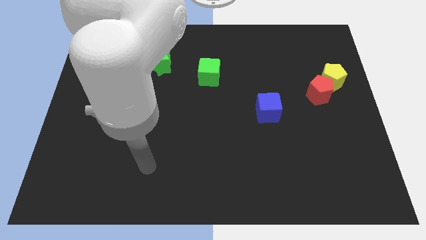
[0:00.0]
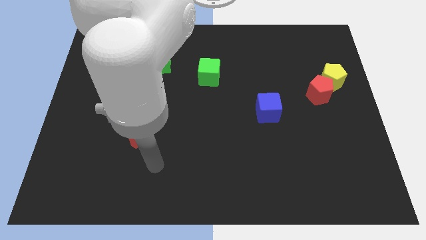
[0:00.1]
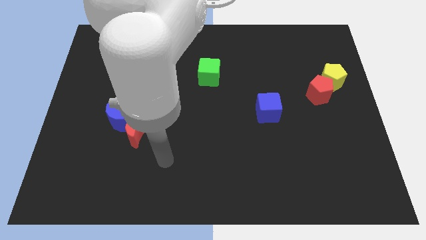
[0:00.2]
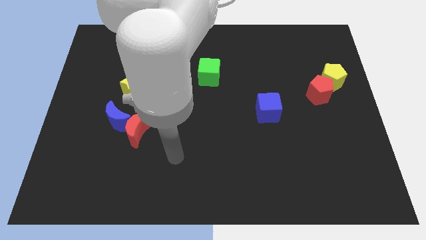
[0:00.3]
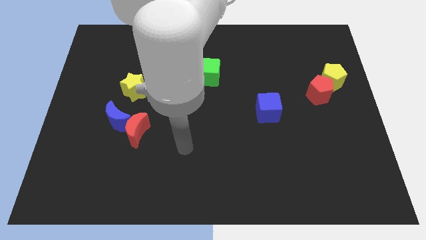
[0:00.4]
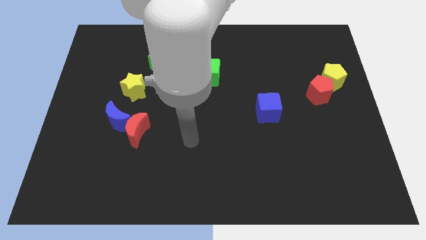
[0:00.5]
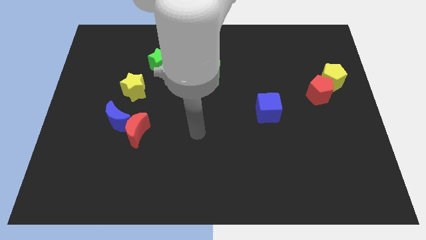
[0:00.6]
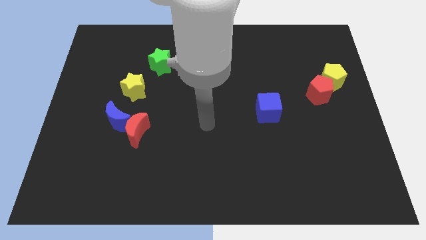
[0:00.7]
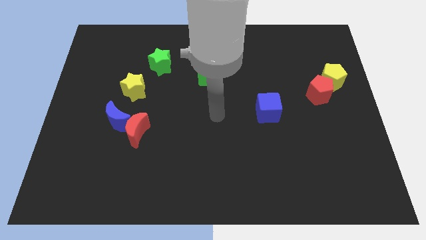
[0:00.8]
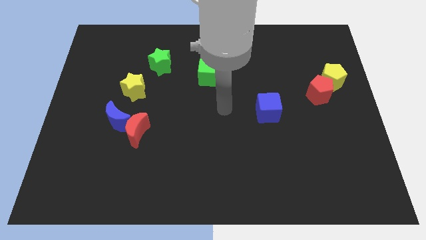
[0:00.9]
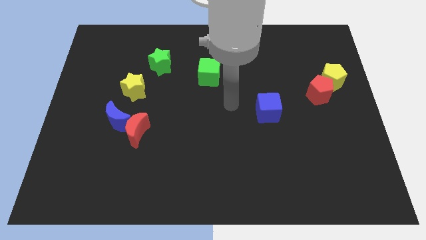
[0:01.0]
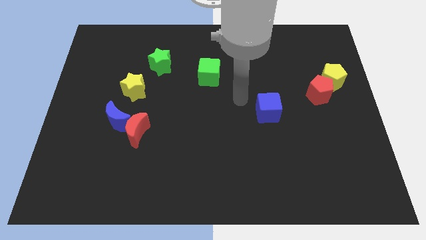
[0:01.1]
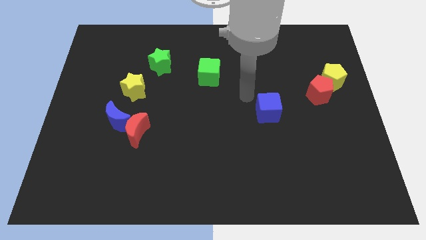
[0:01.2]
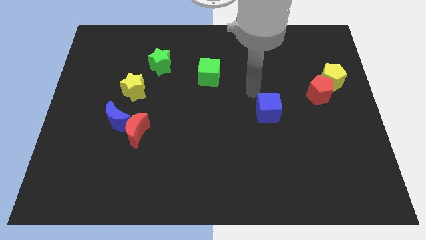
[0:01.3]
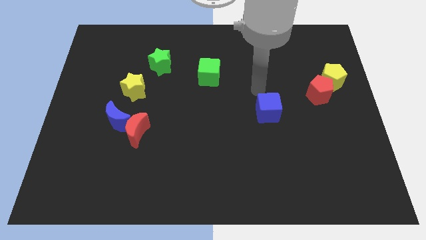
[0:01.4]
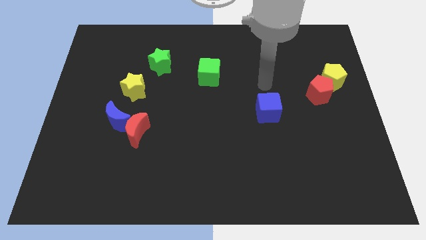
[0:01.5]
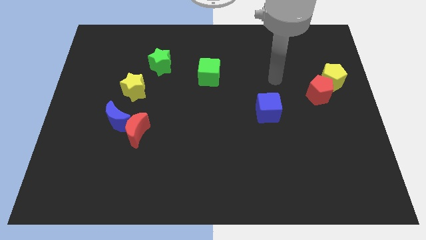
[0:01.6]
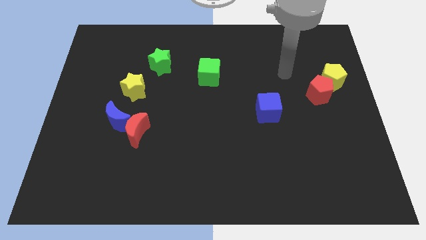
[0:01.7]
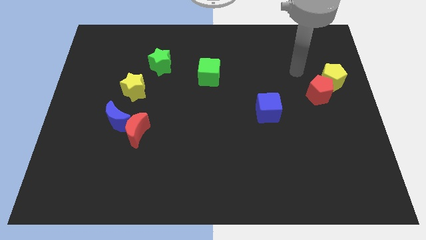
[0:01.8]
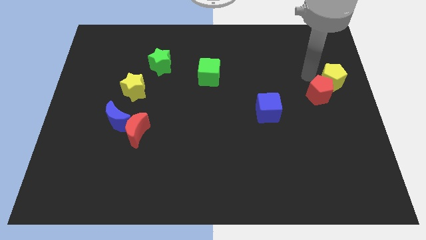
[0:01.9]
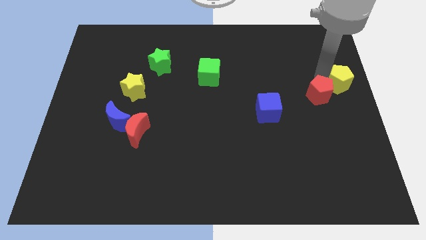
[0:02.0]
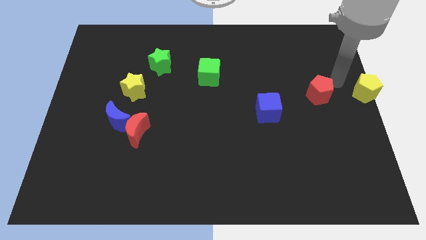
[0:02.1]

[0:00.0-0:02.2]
move the red pentagon away from the yellow pentagon

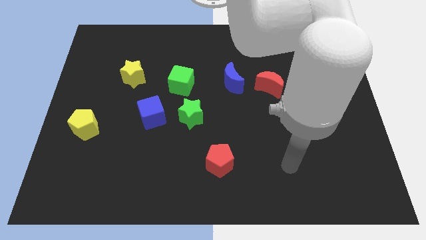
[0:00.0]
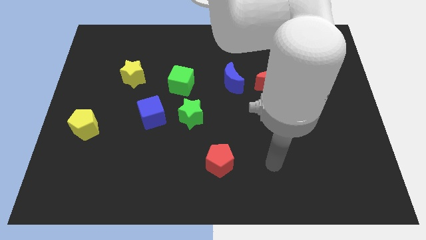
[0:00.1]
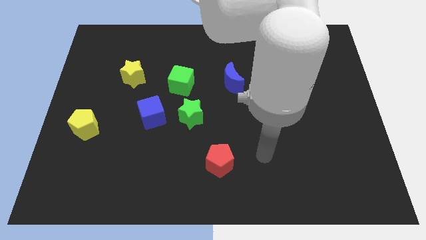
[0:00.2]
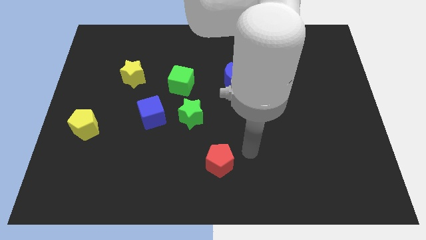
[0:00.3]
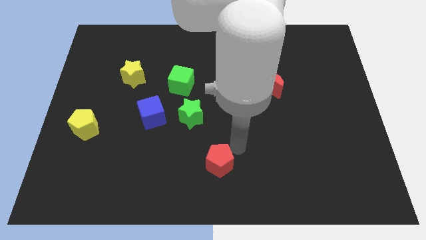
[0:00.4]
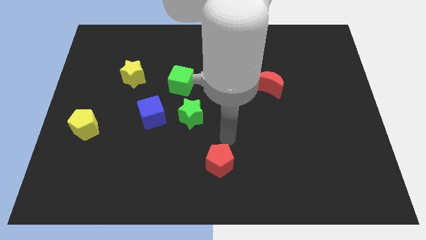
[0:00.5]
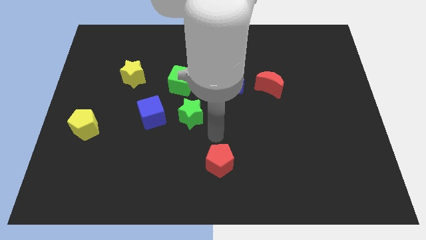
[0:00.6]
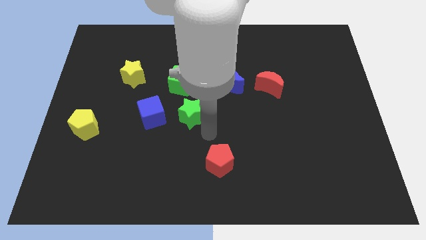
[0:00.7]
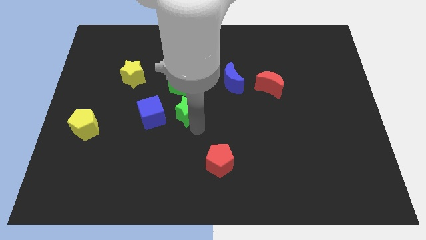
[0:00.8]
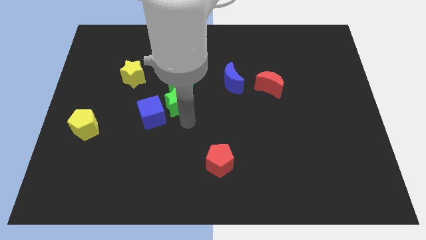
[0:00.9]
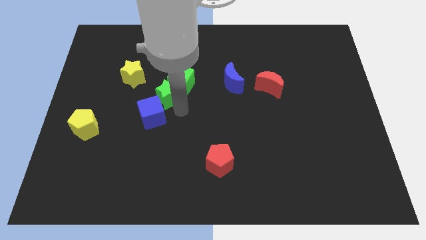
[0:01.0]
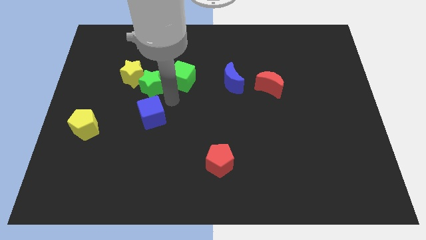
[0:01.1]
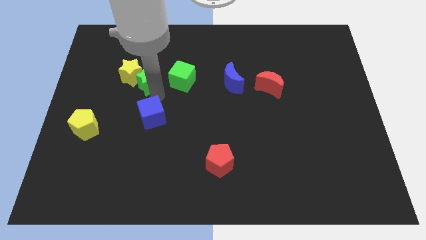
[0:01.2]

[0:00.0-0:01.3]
pull the blue cube apart from the green star

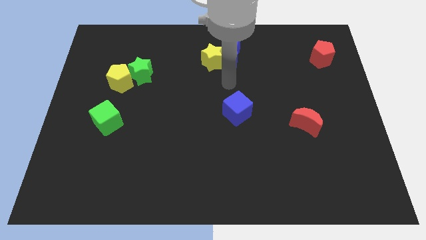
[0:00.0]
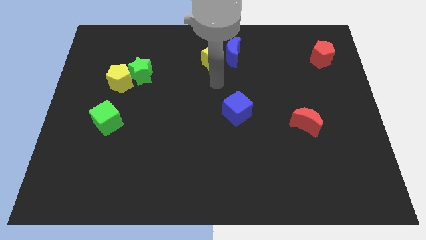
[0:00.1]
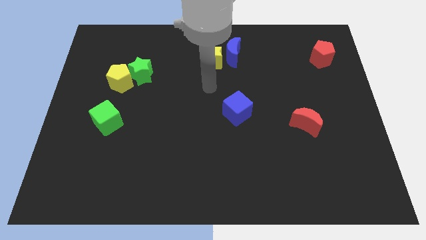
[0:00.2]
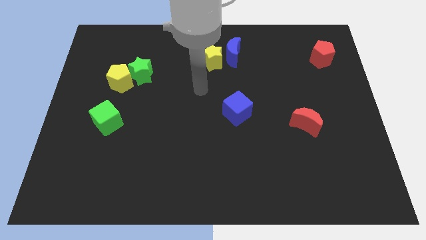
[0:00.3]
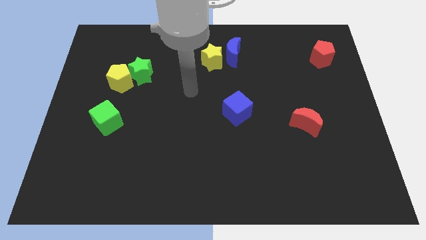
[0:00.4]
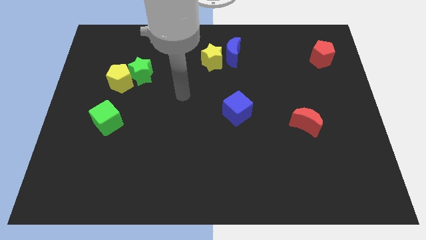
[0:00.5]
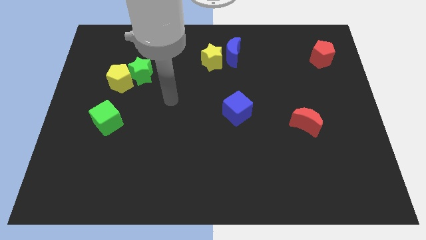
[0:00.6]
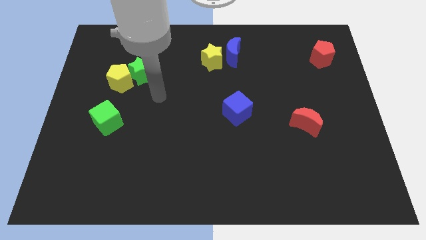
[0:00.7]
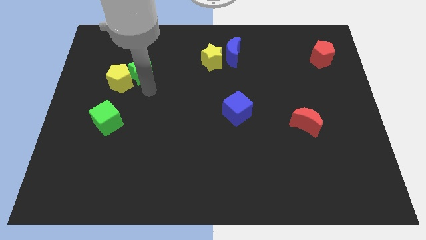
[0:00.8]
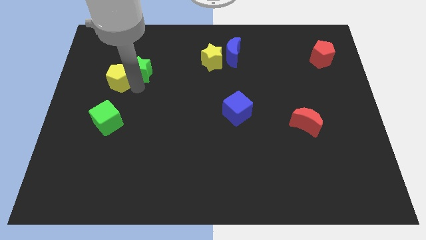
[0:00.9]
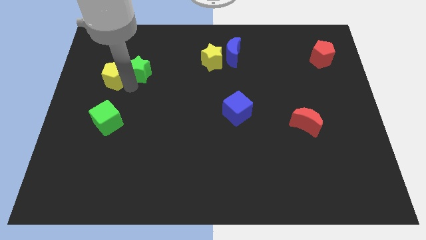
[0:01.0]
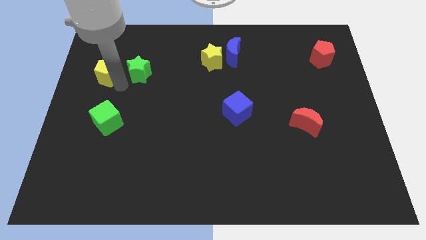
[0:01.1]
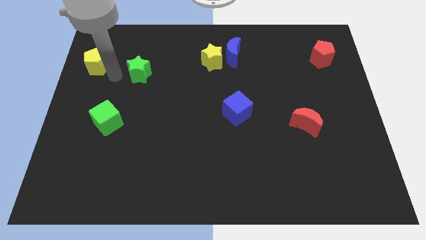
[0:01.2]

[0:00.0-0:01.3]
pull the green star apart from the yellow pentagon

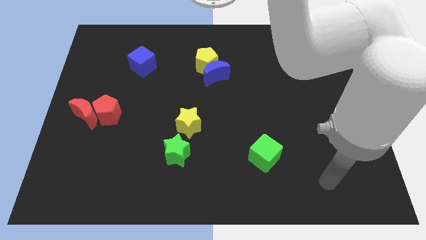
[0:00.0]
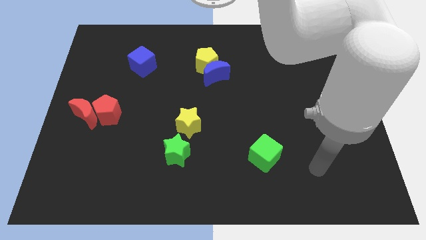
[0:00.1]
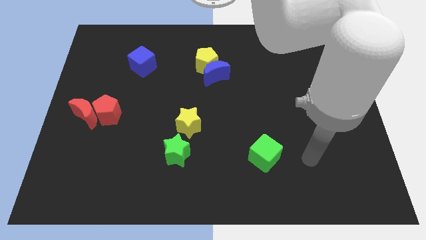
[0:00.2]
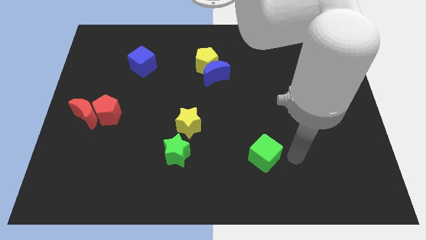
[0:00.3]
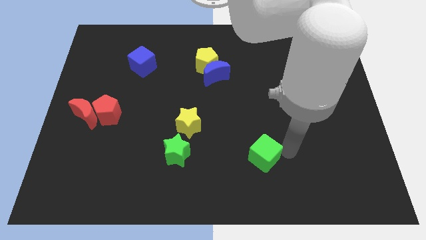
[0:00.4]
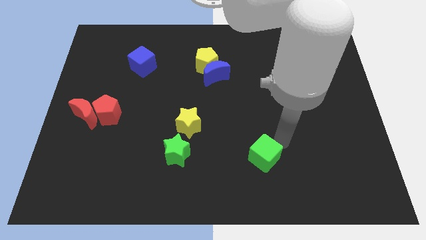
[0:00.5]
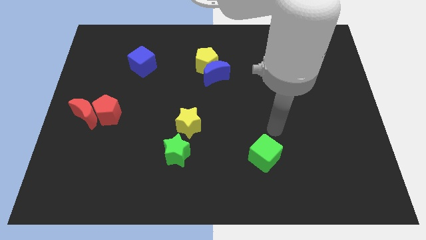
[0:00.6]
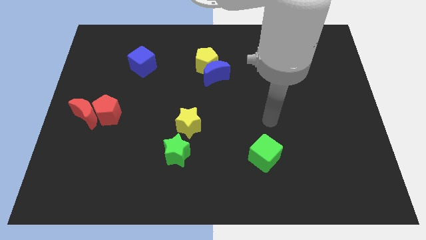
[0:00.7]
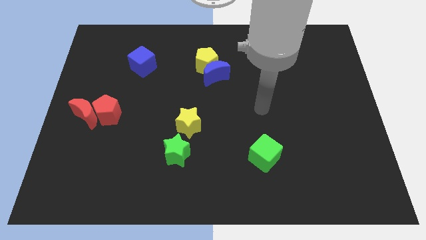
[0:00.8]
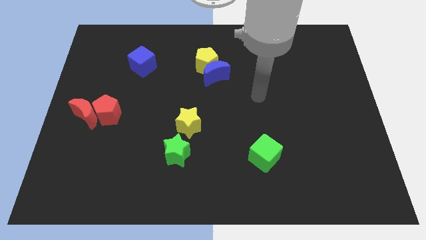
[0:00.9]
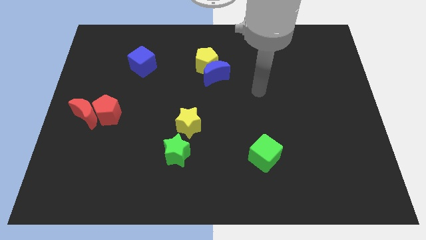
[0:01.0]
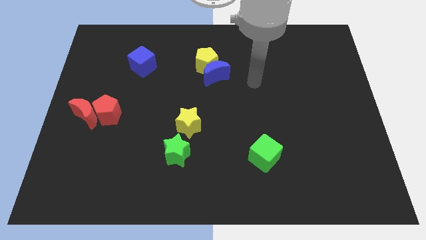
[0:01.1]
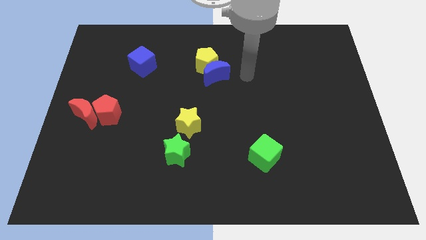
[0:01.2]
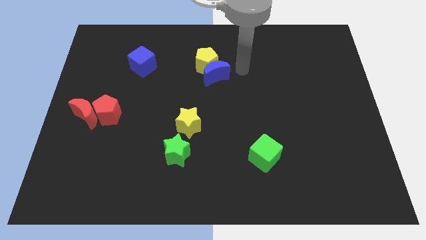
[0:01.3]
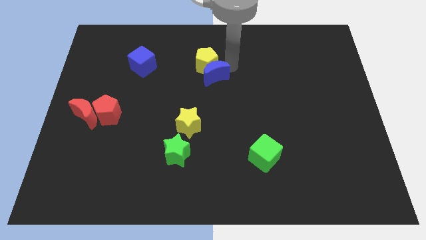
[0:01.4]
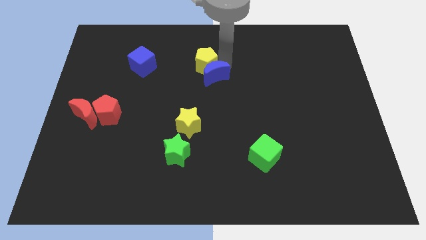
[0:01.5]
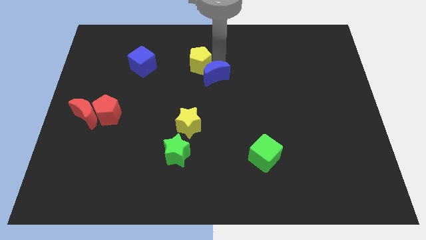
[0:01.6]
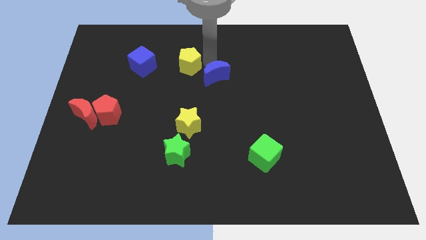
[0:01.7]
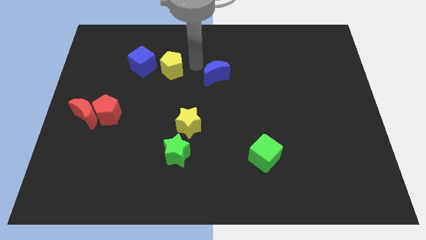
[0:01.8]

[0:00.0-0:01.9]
pull the blue moon apart from the yellow pentagon

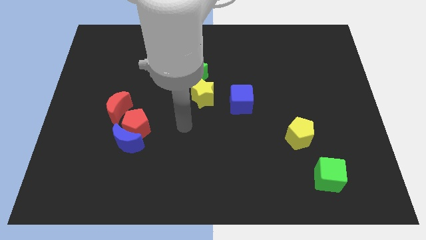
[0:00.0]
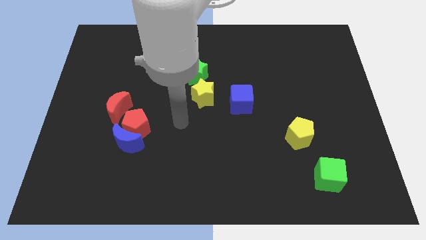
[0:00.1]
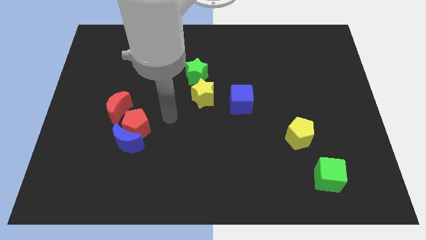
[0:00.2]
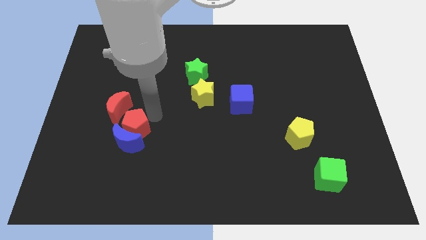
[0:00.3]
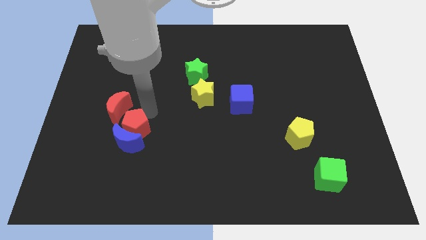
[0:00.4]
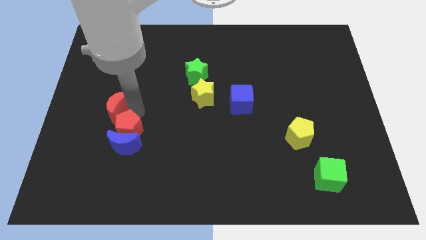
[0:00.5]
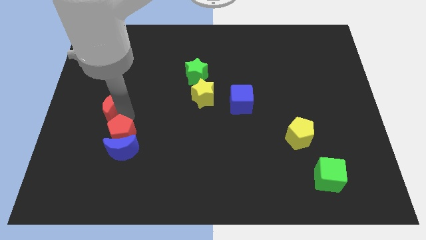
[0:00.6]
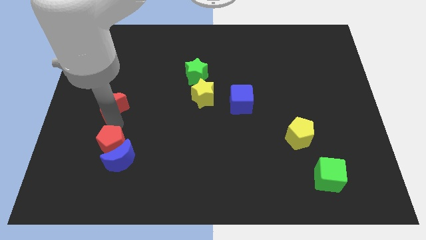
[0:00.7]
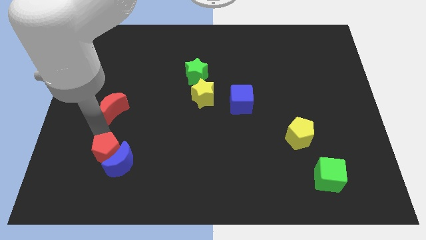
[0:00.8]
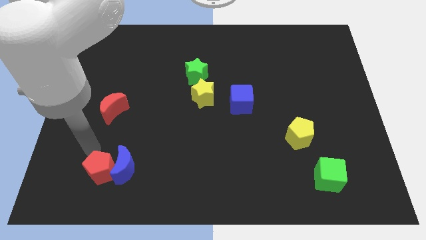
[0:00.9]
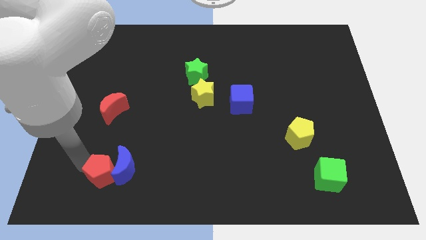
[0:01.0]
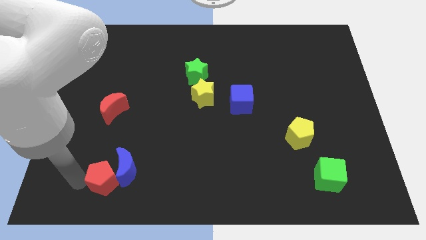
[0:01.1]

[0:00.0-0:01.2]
separate the red pentagon from the blue moon and red moon

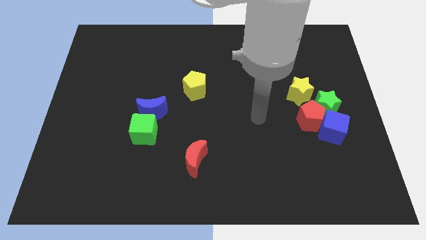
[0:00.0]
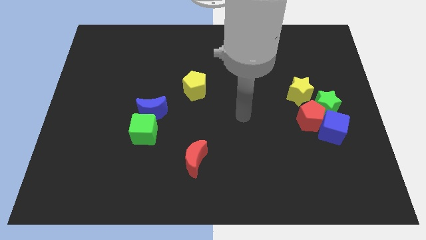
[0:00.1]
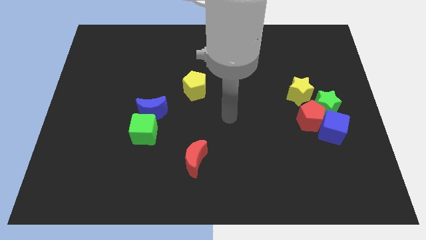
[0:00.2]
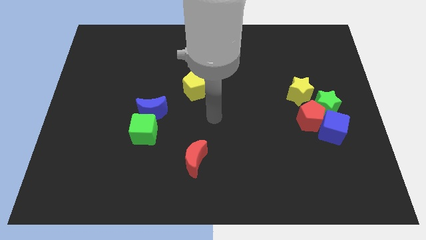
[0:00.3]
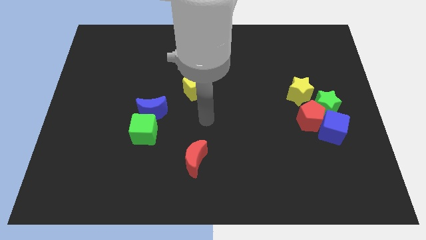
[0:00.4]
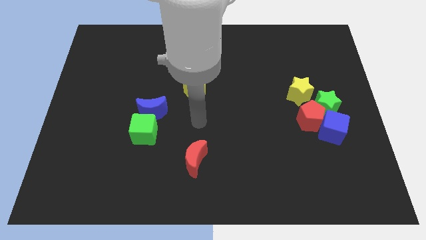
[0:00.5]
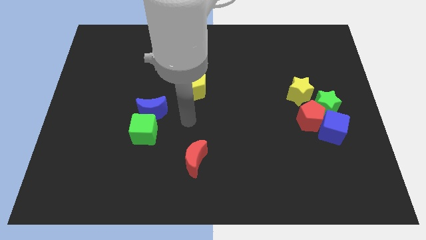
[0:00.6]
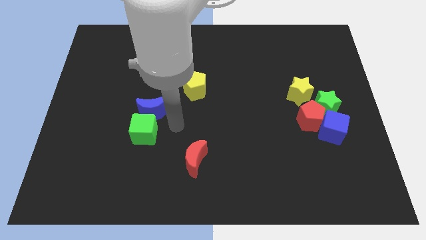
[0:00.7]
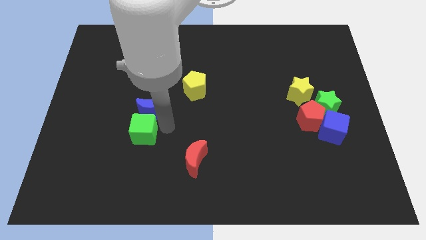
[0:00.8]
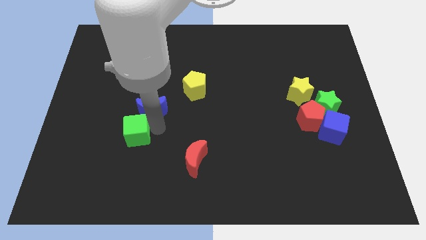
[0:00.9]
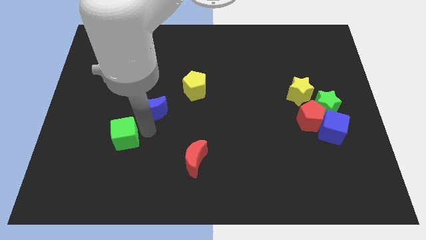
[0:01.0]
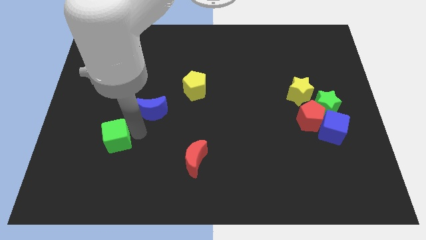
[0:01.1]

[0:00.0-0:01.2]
separate the blue moon from the green cube

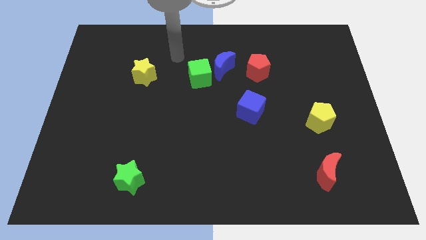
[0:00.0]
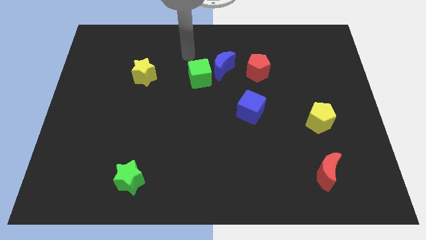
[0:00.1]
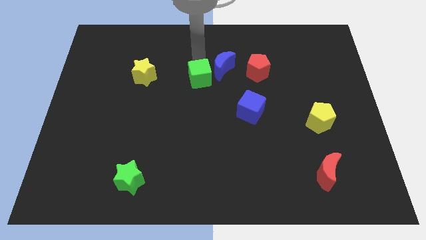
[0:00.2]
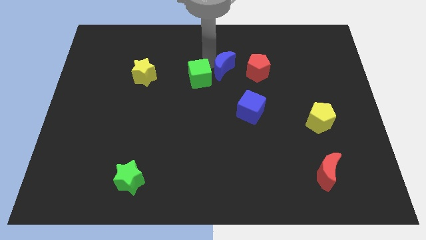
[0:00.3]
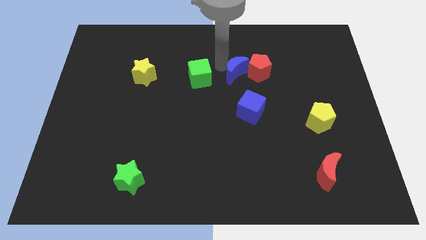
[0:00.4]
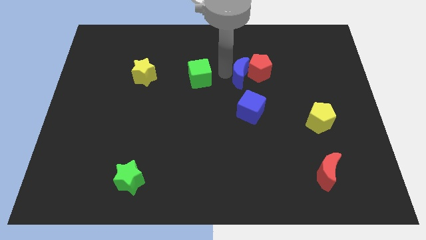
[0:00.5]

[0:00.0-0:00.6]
pull the green cube apart from the blue moon
